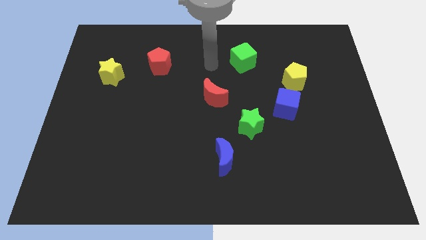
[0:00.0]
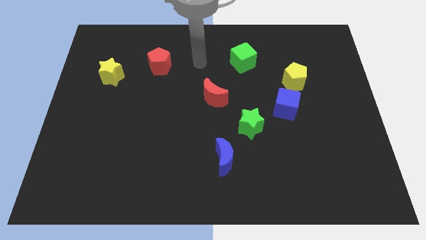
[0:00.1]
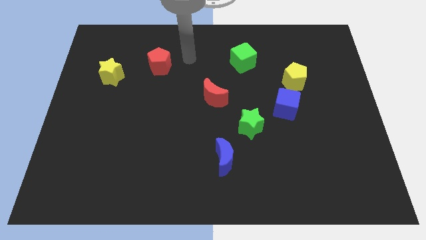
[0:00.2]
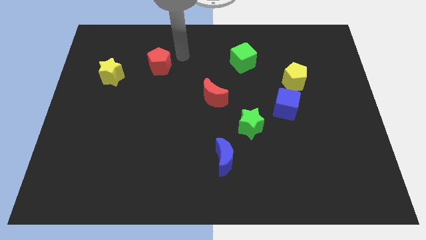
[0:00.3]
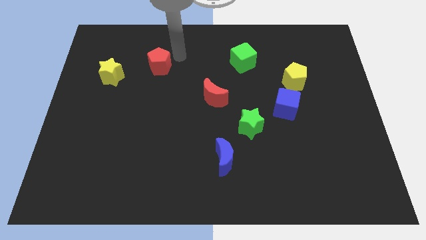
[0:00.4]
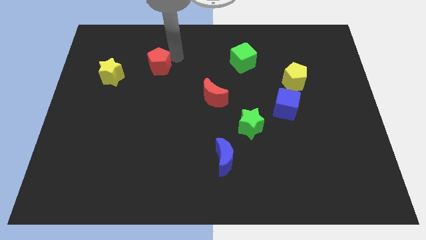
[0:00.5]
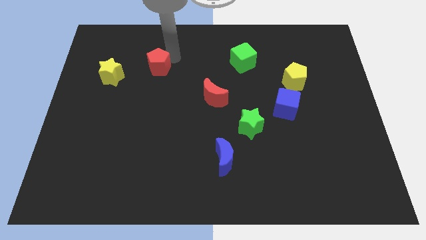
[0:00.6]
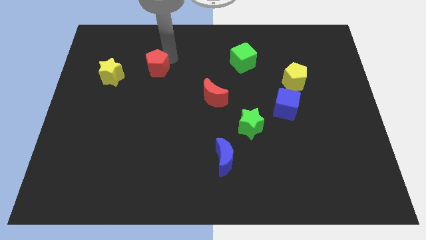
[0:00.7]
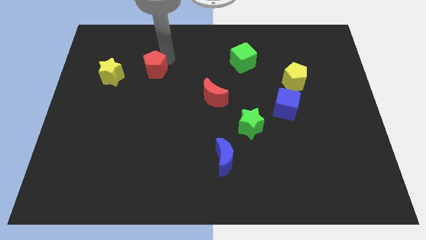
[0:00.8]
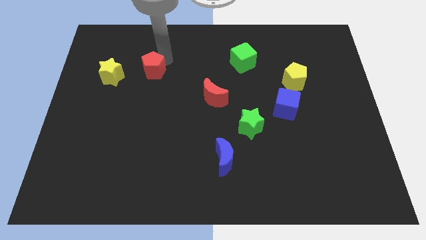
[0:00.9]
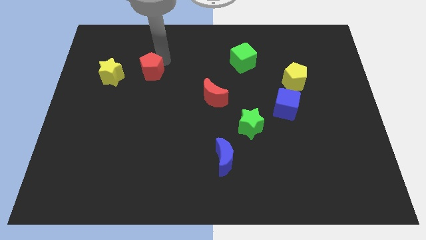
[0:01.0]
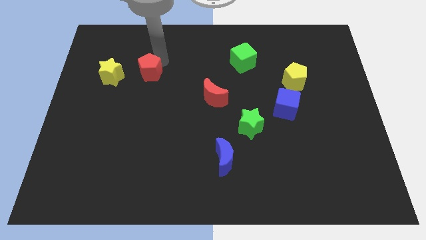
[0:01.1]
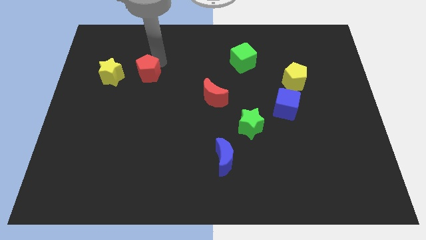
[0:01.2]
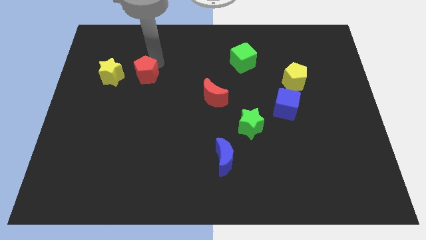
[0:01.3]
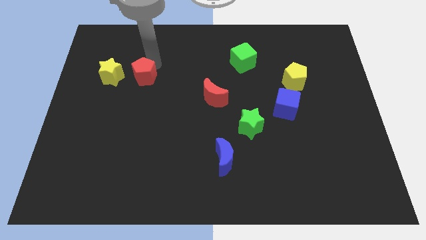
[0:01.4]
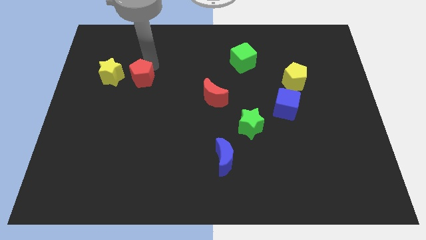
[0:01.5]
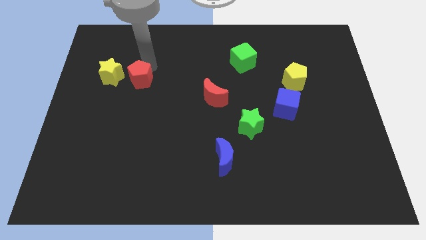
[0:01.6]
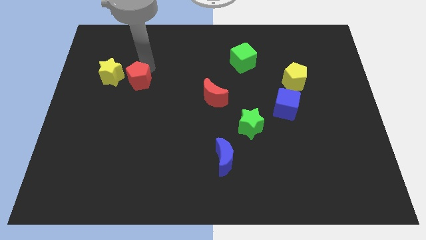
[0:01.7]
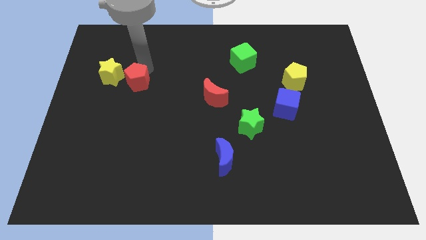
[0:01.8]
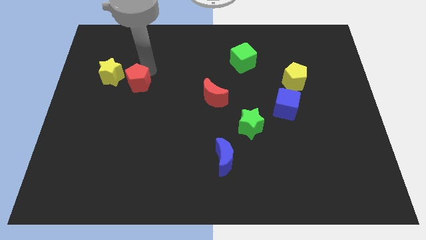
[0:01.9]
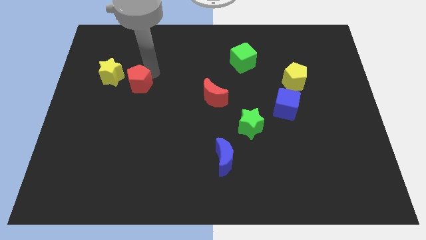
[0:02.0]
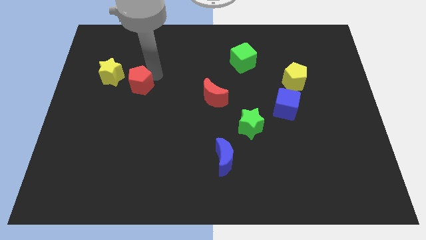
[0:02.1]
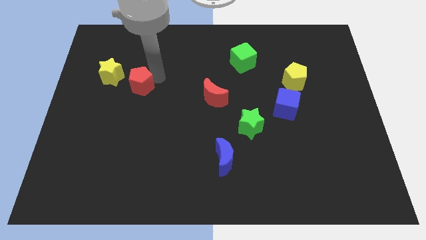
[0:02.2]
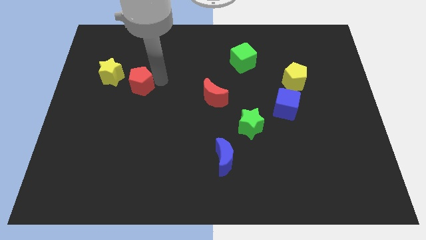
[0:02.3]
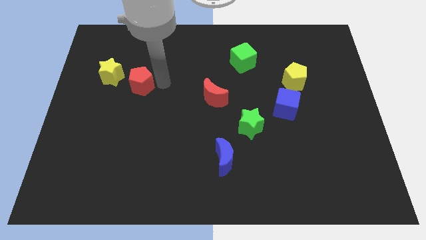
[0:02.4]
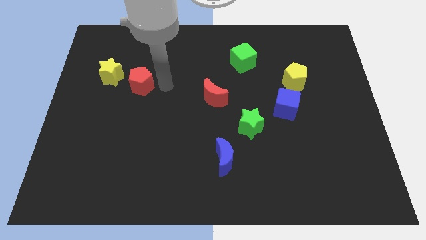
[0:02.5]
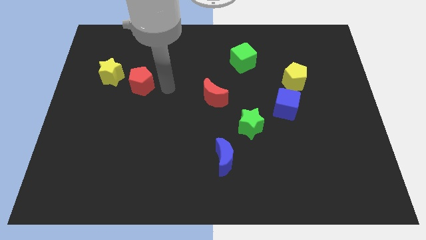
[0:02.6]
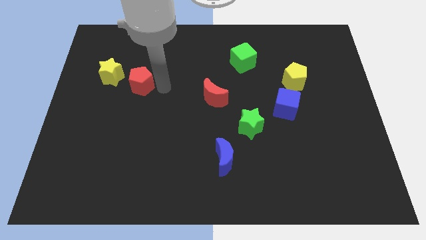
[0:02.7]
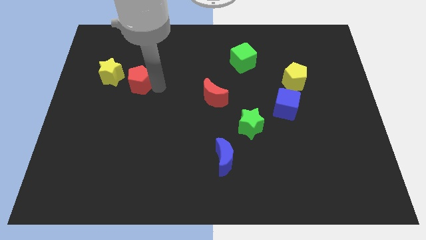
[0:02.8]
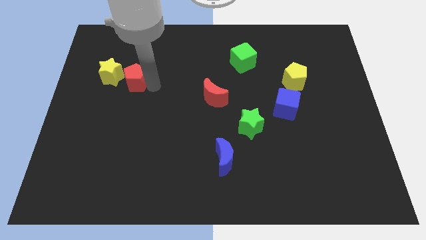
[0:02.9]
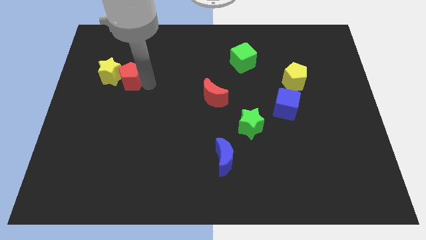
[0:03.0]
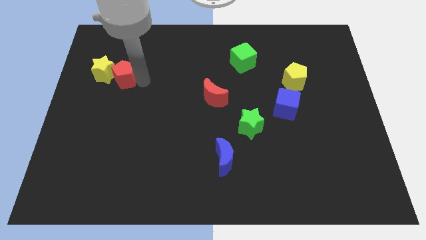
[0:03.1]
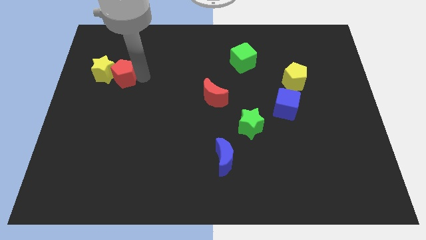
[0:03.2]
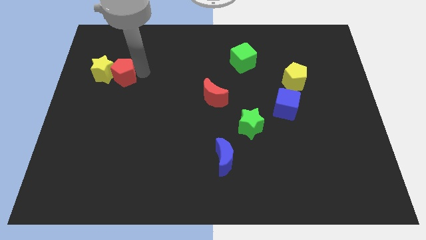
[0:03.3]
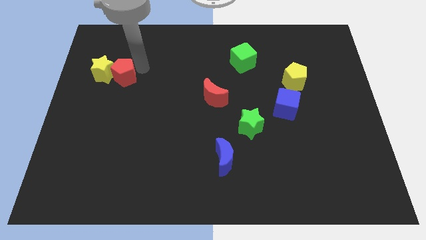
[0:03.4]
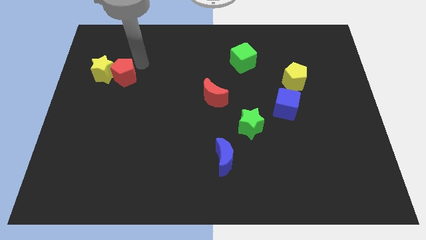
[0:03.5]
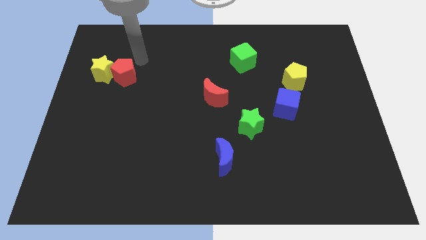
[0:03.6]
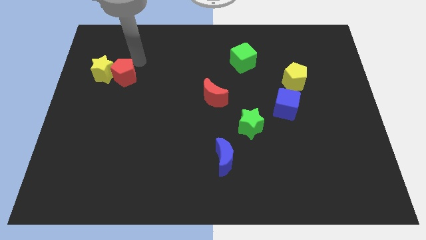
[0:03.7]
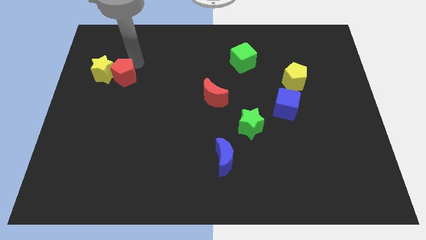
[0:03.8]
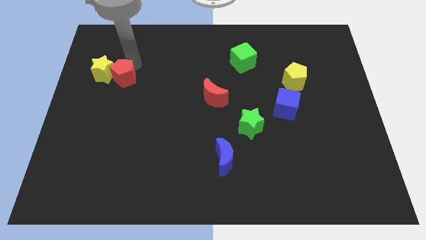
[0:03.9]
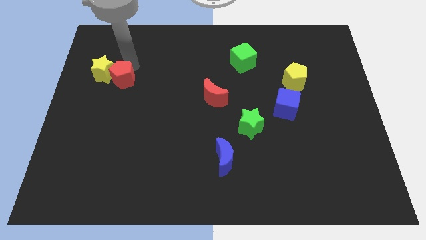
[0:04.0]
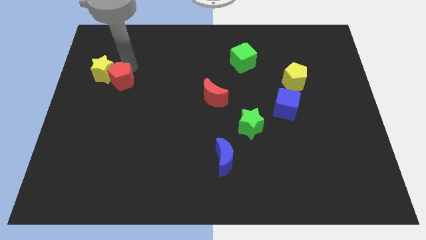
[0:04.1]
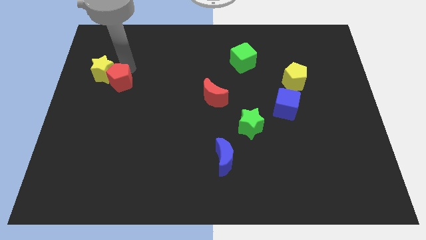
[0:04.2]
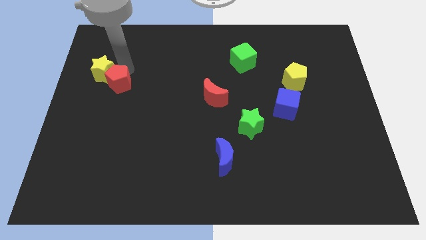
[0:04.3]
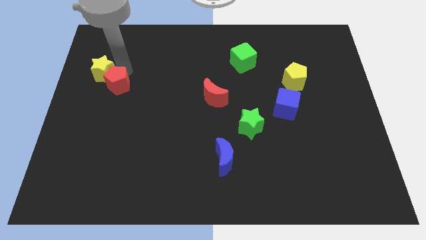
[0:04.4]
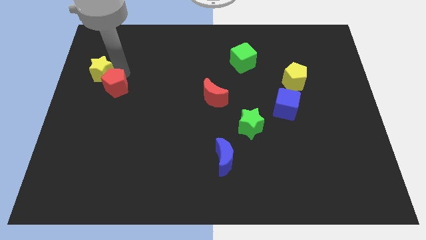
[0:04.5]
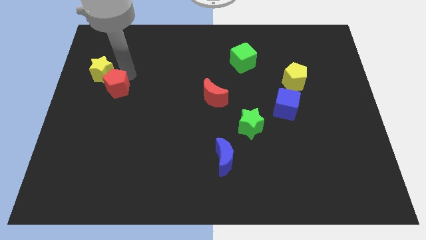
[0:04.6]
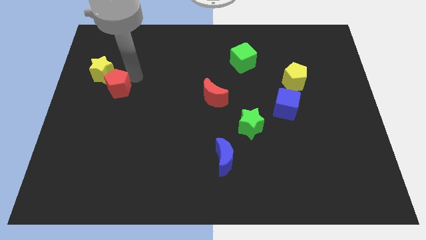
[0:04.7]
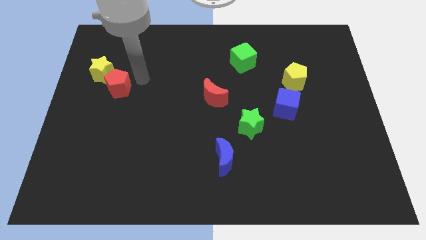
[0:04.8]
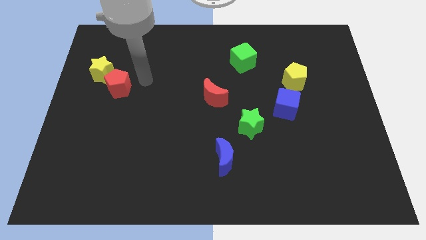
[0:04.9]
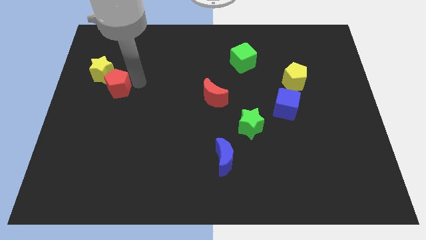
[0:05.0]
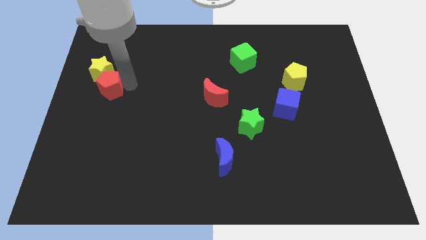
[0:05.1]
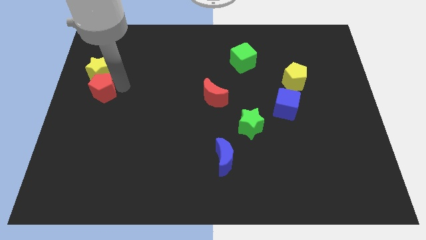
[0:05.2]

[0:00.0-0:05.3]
move the red pentagon to the left side of the board

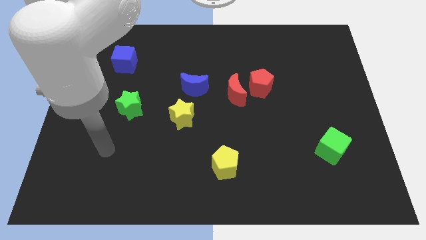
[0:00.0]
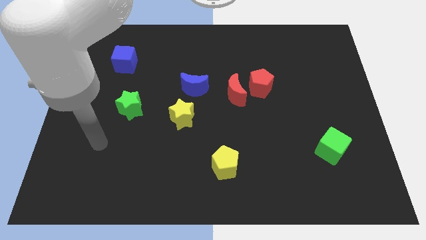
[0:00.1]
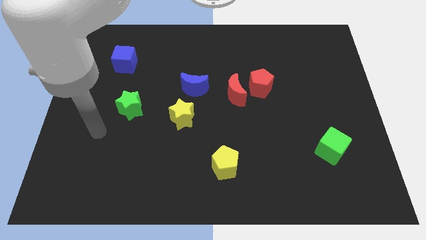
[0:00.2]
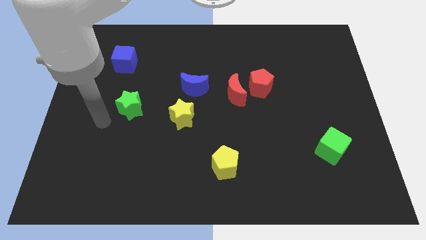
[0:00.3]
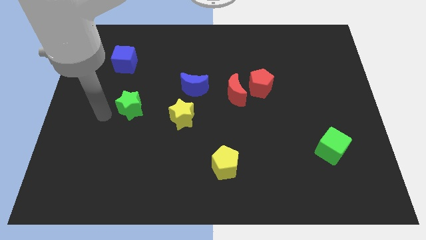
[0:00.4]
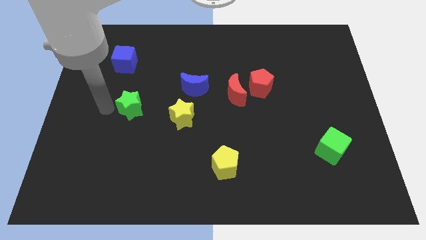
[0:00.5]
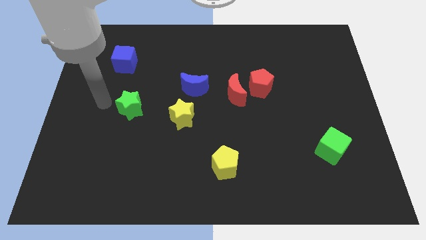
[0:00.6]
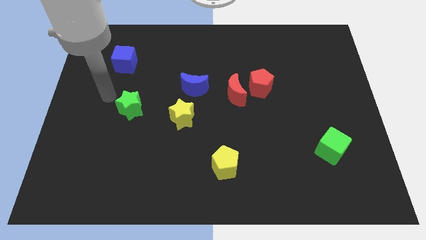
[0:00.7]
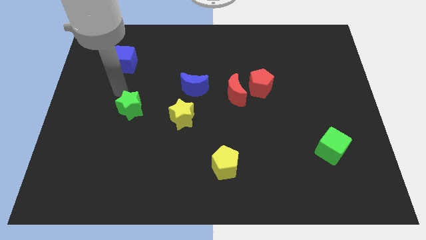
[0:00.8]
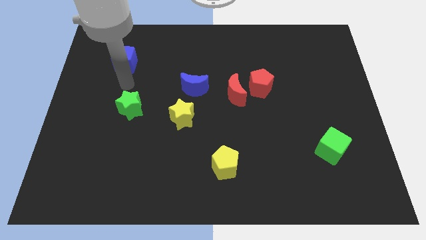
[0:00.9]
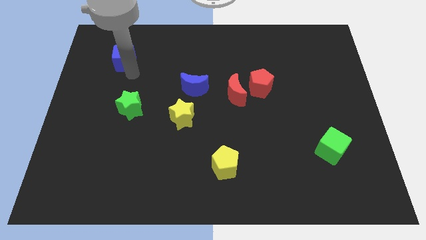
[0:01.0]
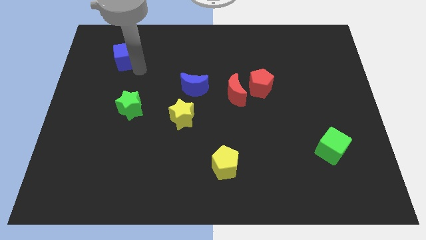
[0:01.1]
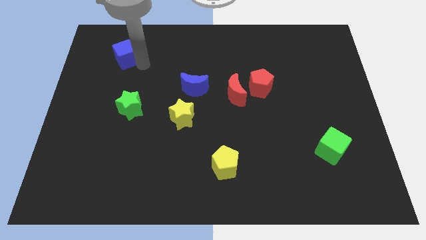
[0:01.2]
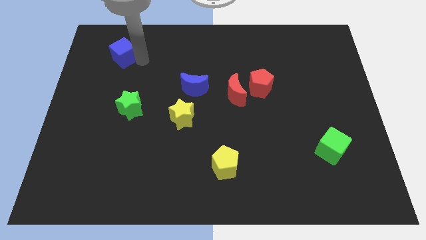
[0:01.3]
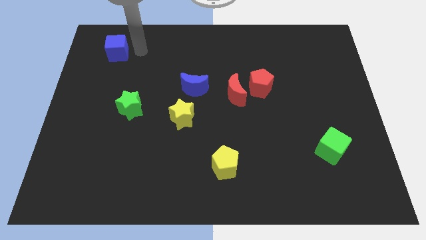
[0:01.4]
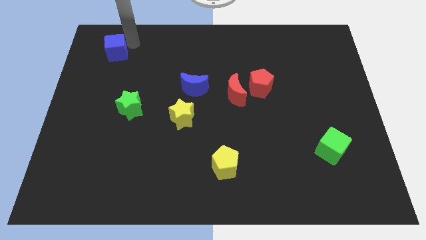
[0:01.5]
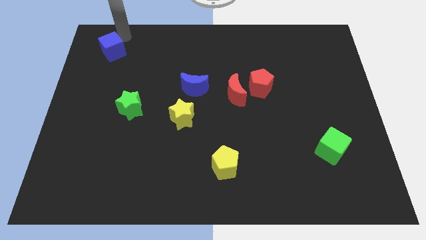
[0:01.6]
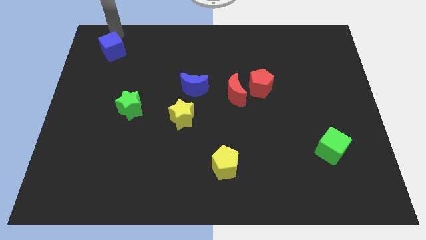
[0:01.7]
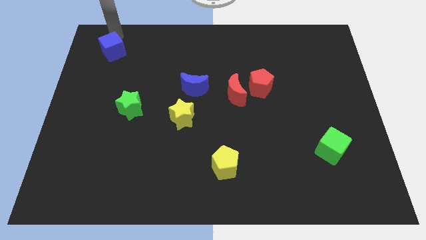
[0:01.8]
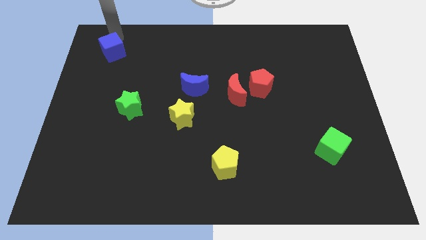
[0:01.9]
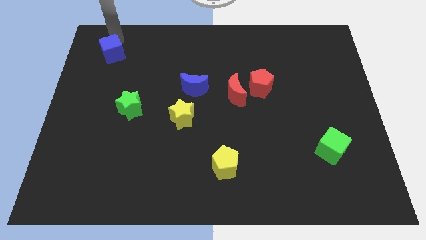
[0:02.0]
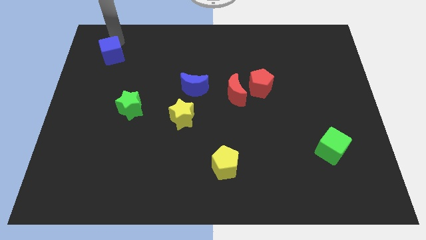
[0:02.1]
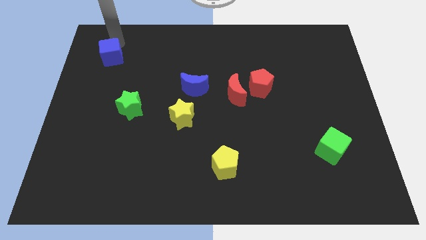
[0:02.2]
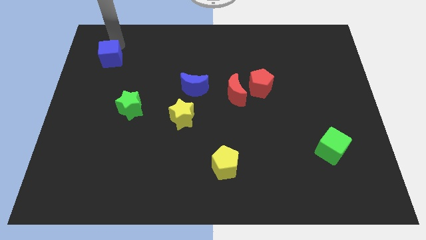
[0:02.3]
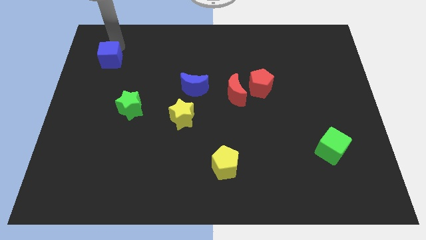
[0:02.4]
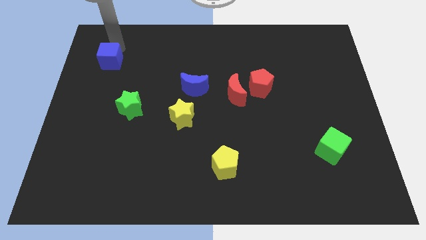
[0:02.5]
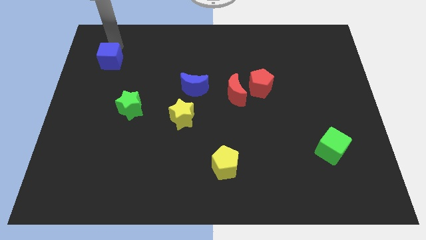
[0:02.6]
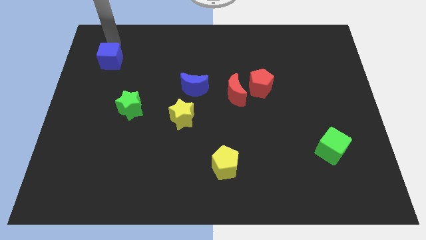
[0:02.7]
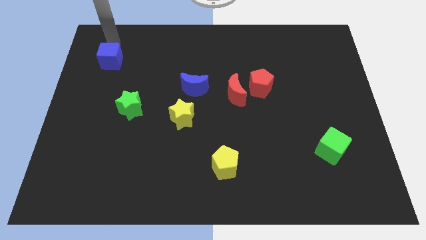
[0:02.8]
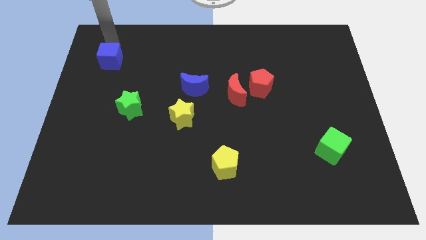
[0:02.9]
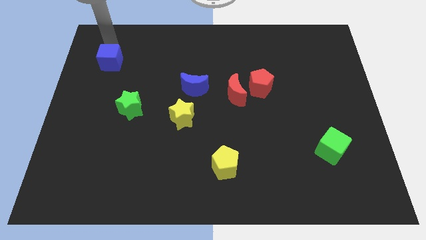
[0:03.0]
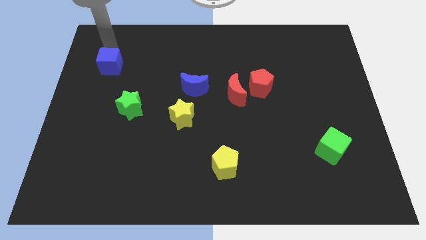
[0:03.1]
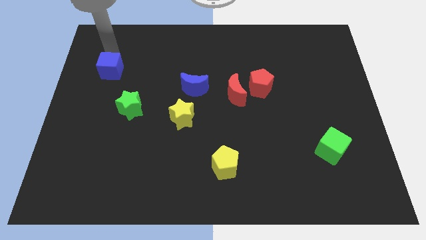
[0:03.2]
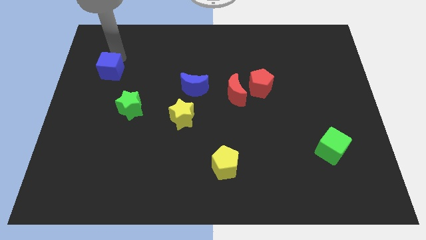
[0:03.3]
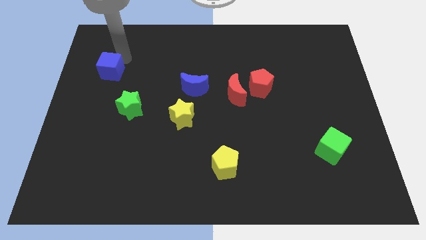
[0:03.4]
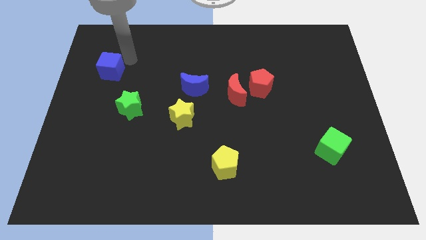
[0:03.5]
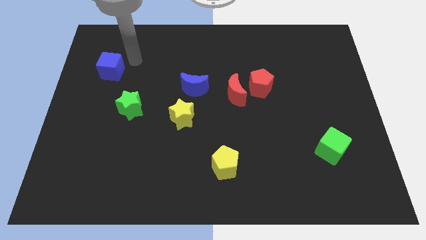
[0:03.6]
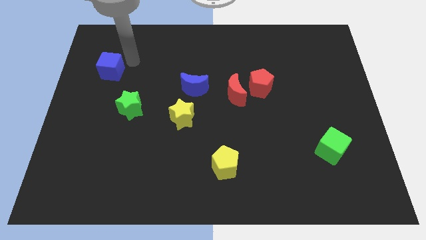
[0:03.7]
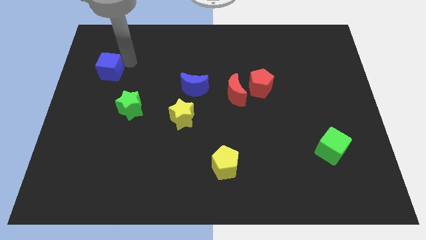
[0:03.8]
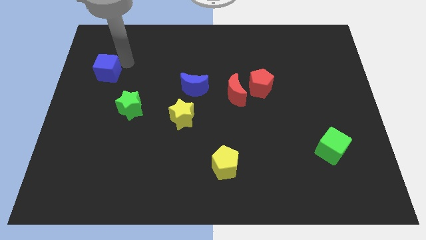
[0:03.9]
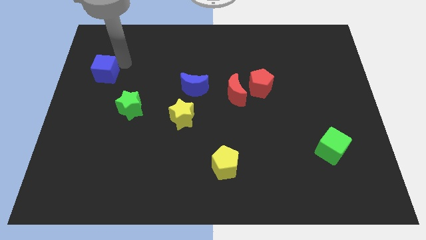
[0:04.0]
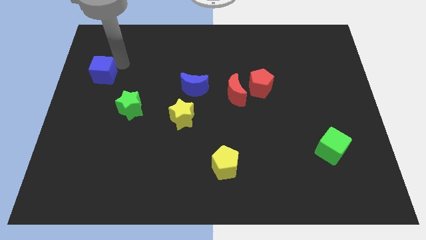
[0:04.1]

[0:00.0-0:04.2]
push the blue cube to the center left
